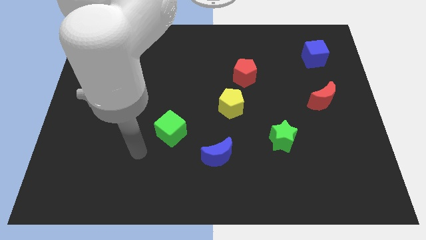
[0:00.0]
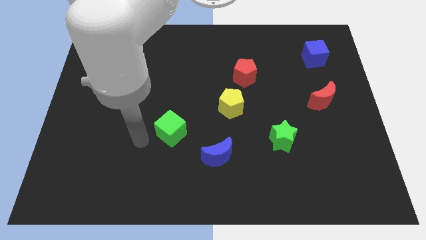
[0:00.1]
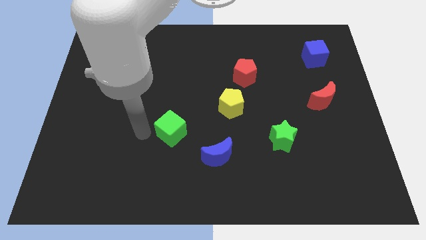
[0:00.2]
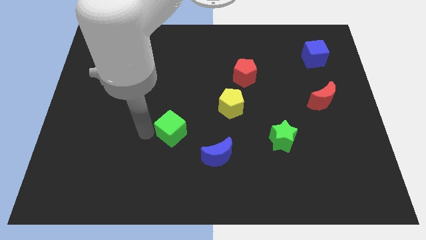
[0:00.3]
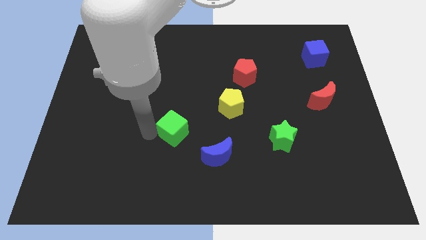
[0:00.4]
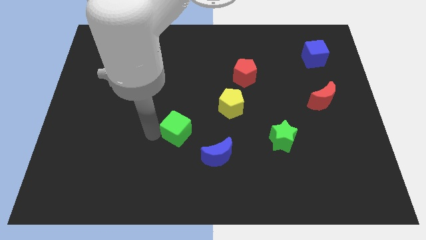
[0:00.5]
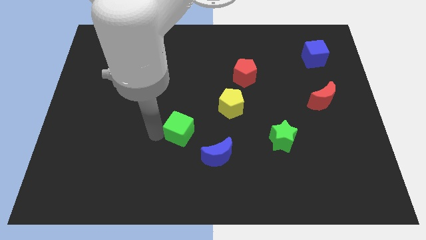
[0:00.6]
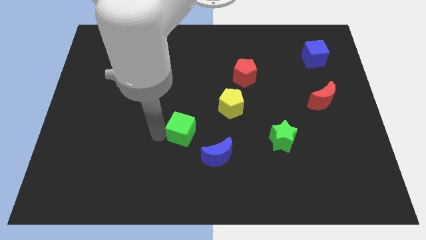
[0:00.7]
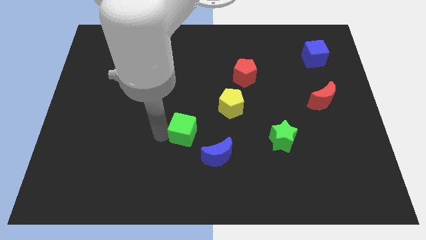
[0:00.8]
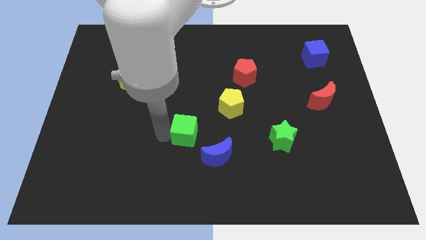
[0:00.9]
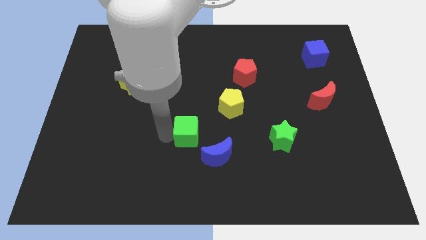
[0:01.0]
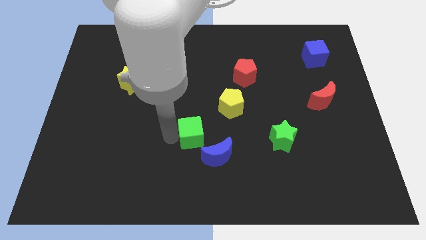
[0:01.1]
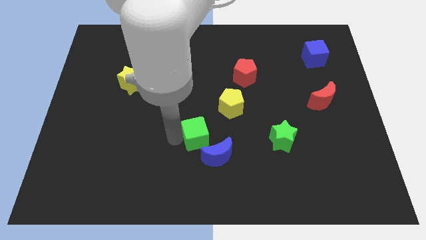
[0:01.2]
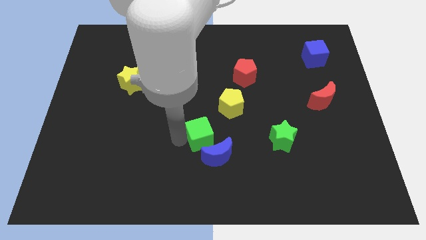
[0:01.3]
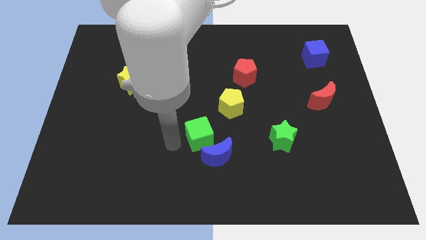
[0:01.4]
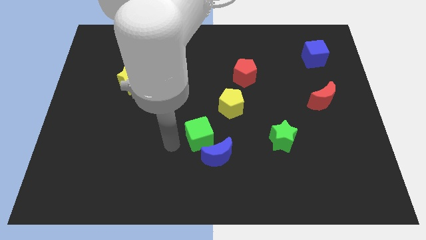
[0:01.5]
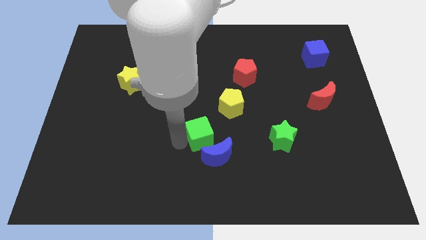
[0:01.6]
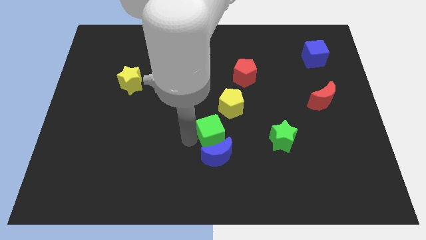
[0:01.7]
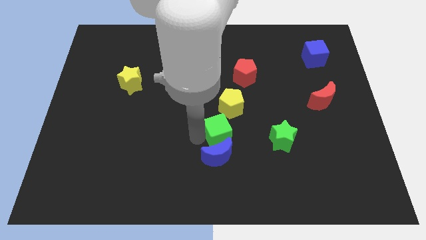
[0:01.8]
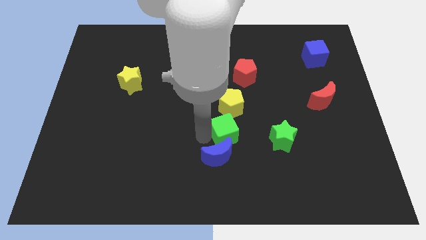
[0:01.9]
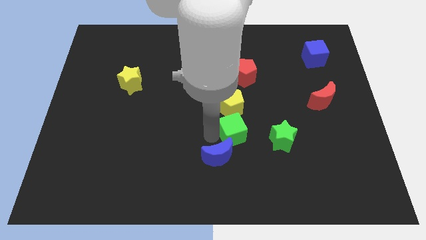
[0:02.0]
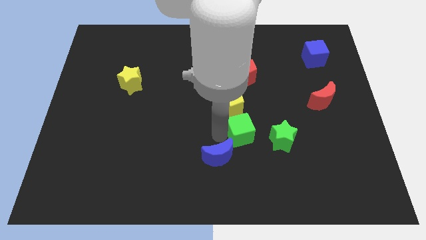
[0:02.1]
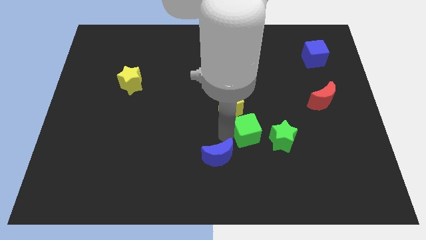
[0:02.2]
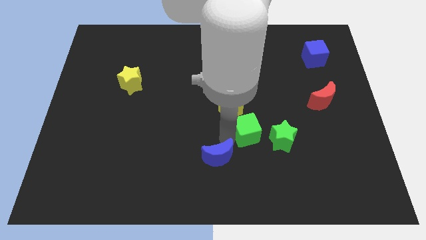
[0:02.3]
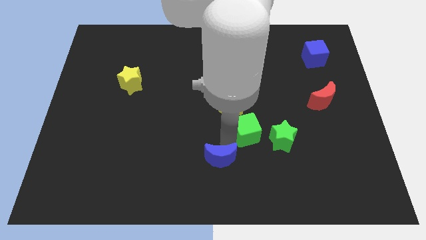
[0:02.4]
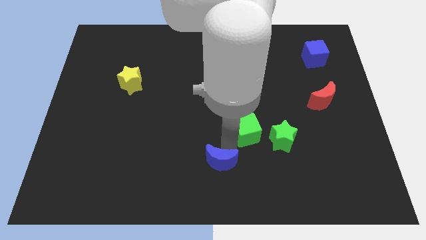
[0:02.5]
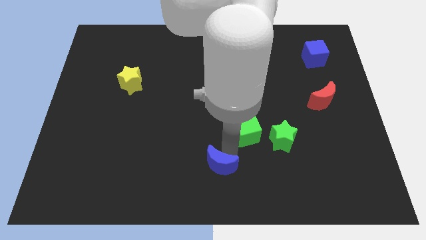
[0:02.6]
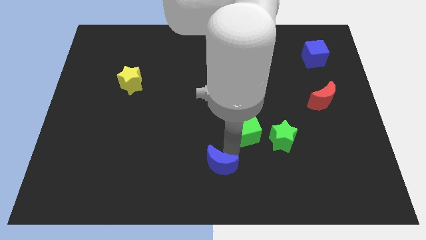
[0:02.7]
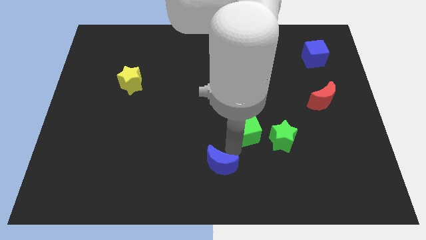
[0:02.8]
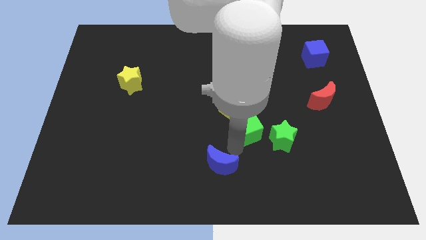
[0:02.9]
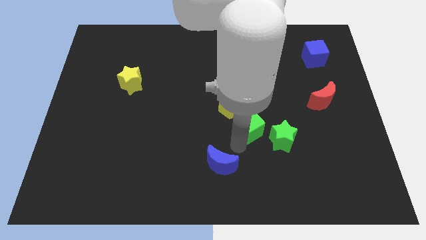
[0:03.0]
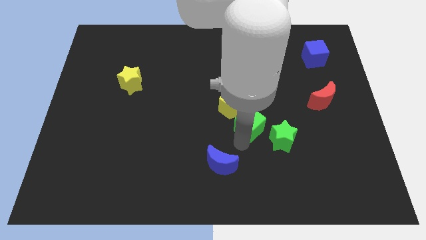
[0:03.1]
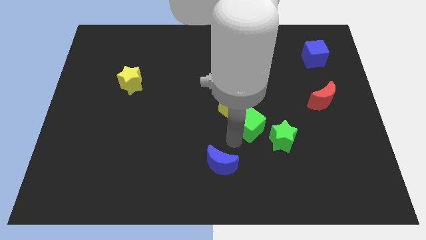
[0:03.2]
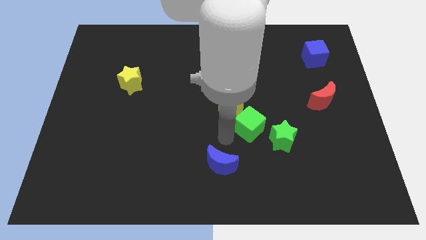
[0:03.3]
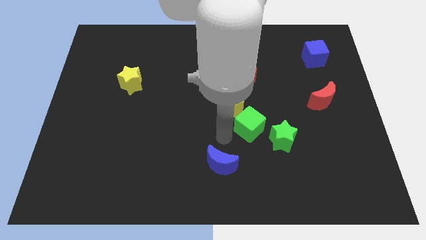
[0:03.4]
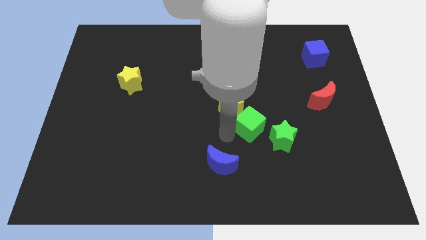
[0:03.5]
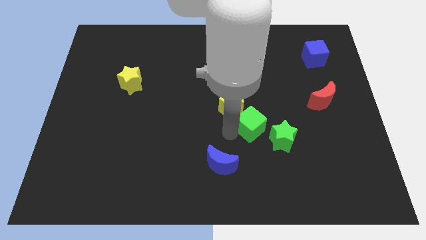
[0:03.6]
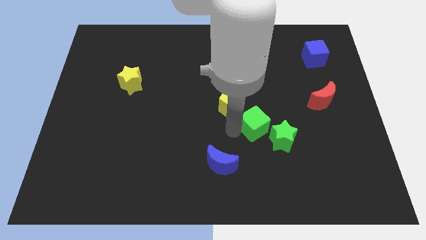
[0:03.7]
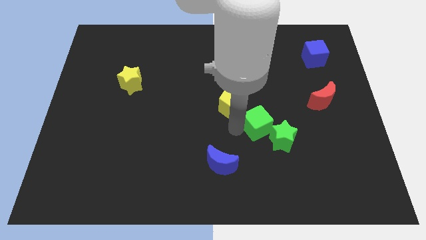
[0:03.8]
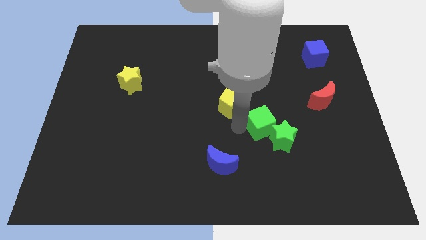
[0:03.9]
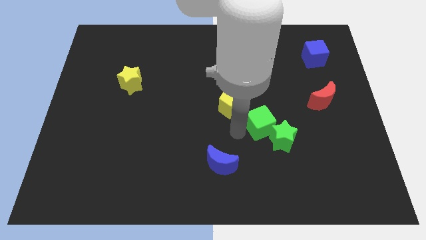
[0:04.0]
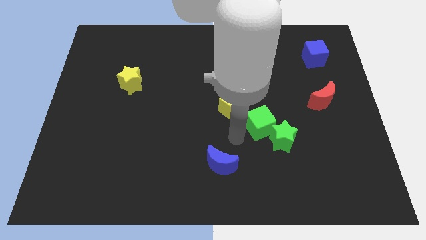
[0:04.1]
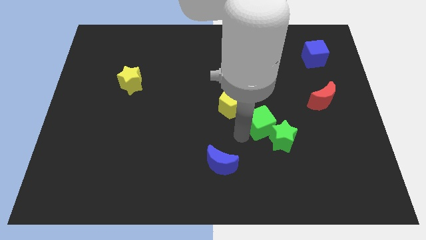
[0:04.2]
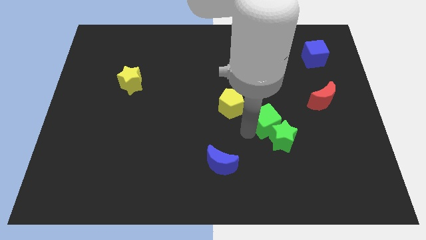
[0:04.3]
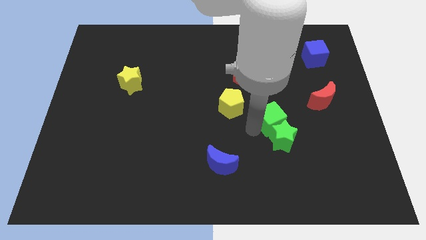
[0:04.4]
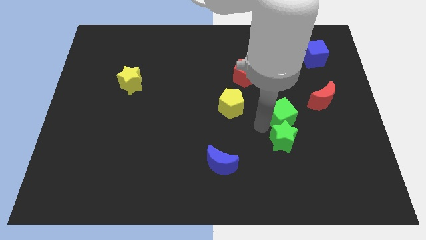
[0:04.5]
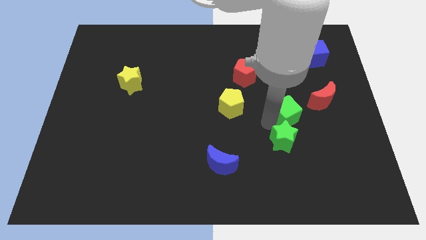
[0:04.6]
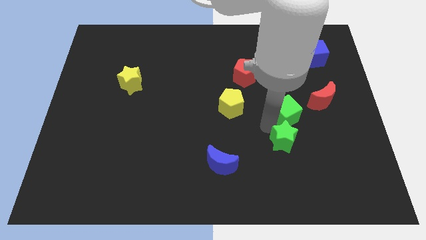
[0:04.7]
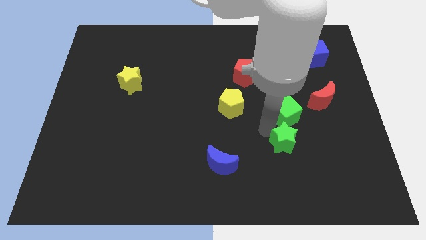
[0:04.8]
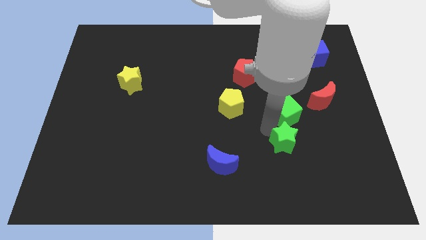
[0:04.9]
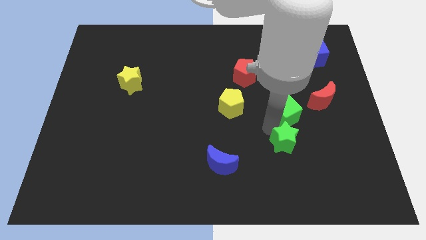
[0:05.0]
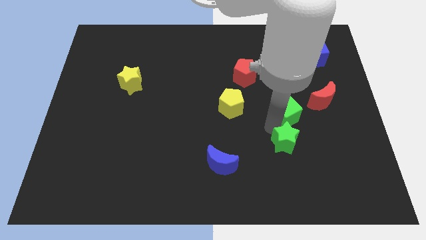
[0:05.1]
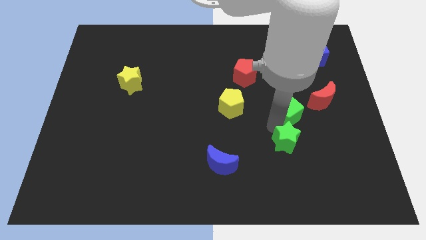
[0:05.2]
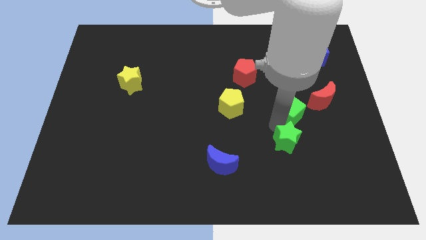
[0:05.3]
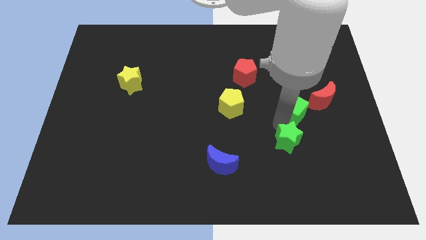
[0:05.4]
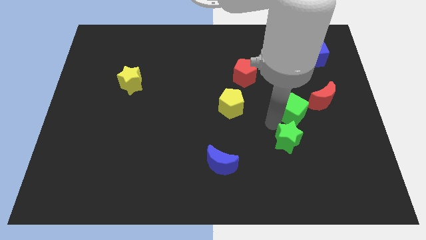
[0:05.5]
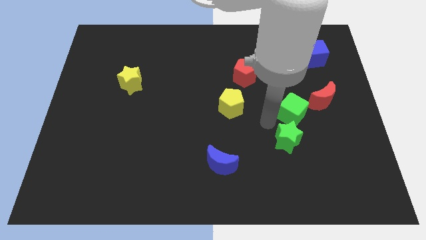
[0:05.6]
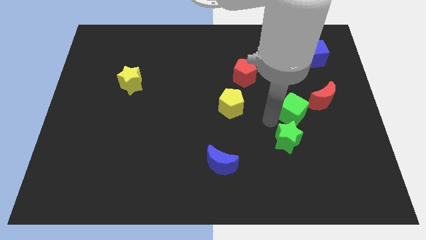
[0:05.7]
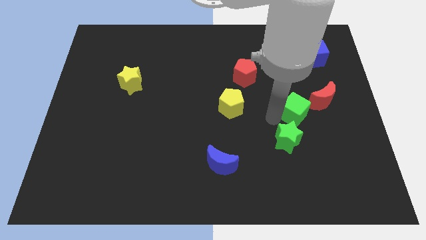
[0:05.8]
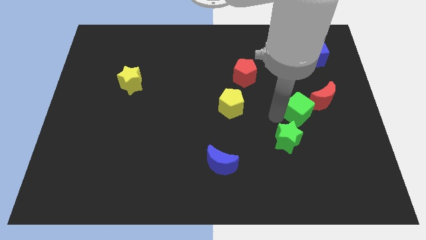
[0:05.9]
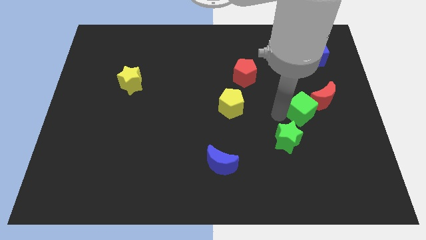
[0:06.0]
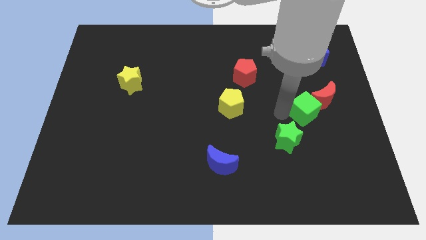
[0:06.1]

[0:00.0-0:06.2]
push the green cube next to the red moon

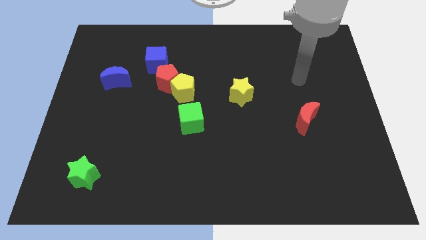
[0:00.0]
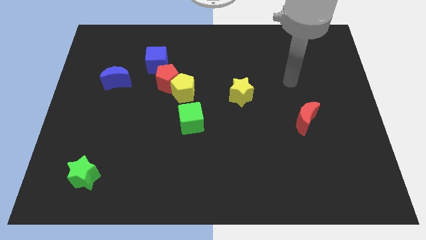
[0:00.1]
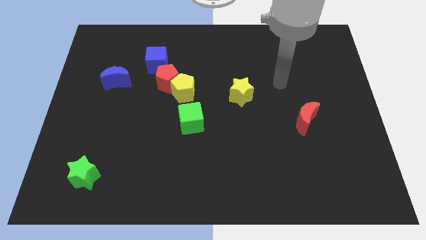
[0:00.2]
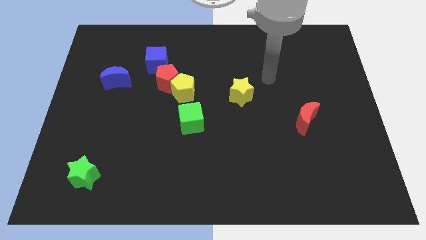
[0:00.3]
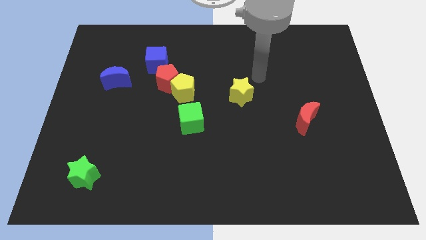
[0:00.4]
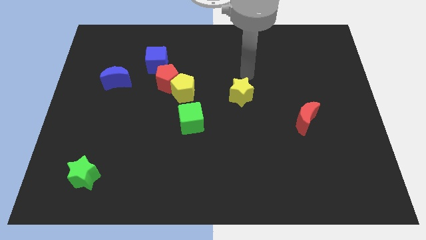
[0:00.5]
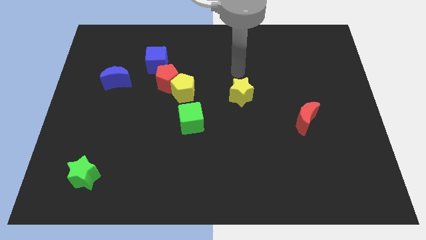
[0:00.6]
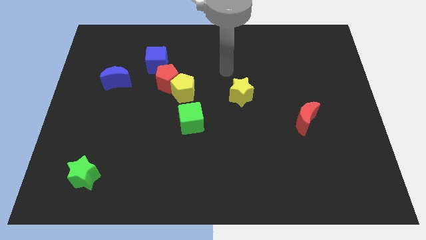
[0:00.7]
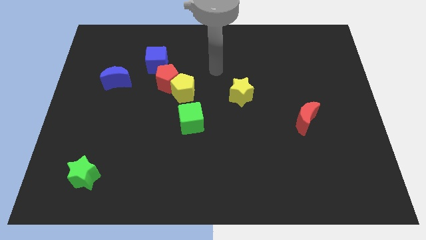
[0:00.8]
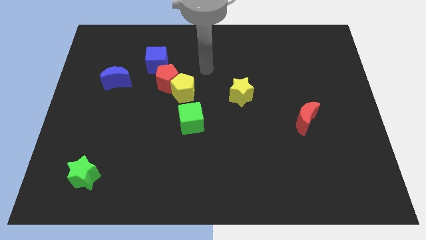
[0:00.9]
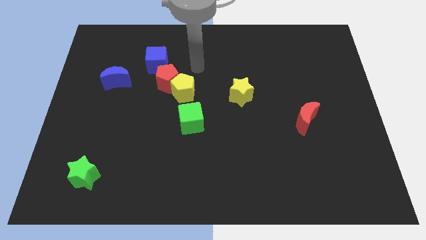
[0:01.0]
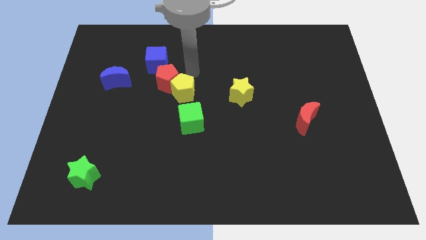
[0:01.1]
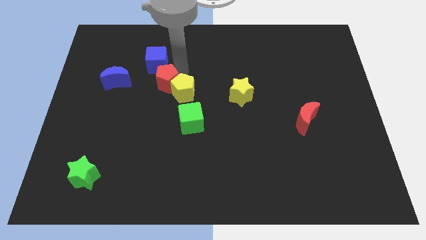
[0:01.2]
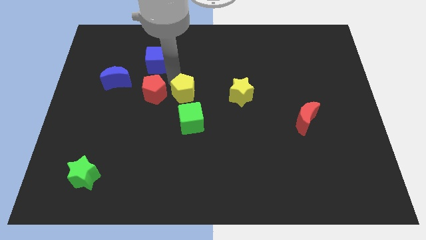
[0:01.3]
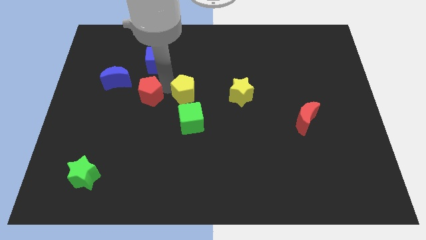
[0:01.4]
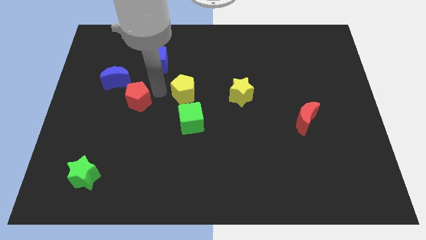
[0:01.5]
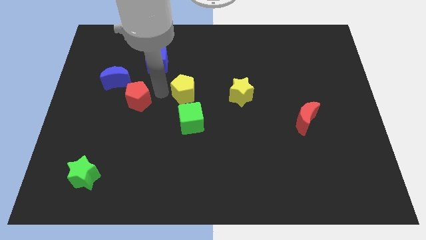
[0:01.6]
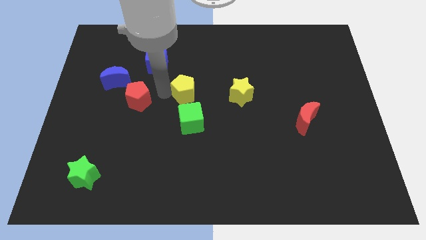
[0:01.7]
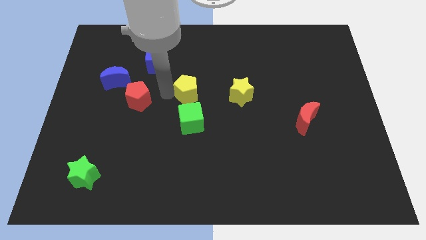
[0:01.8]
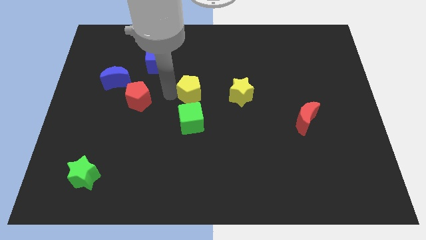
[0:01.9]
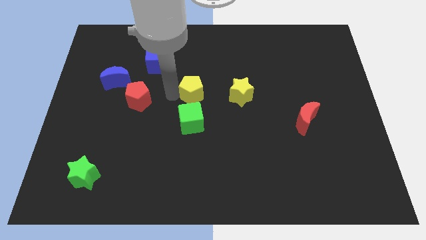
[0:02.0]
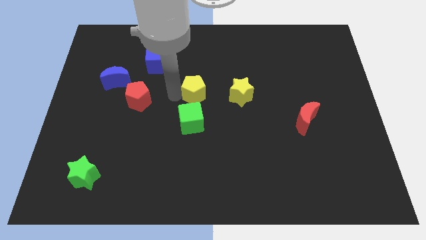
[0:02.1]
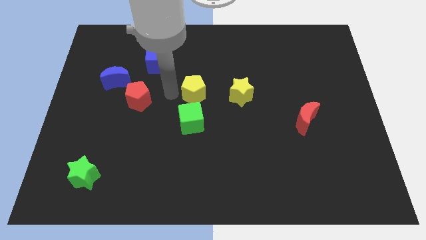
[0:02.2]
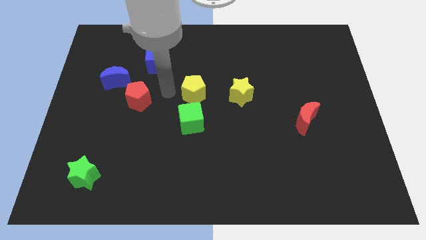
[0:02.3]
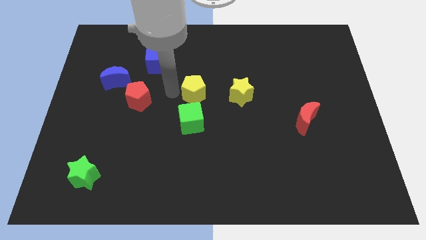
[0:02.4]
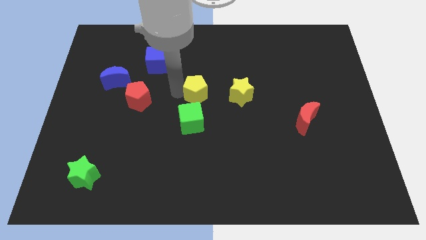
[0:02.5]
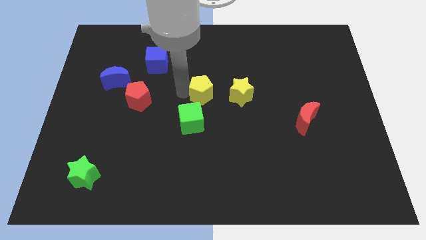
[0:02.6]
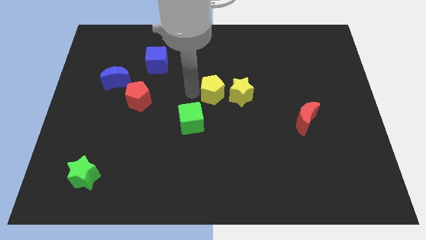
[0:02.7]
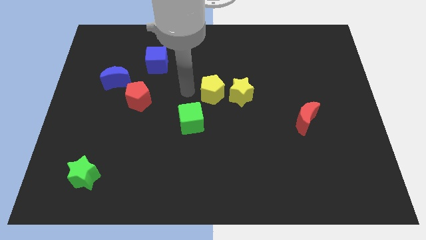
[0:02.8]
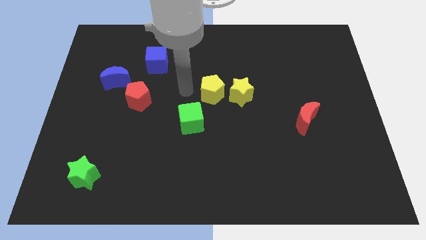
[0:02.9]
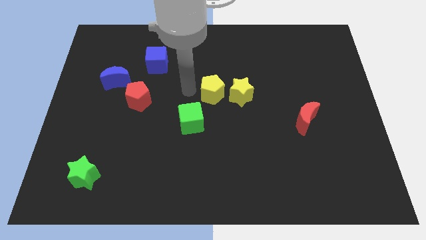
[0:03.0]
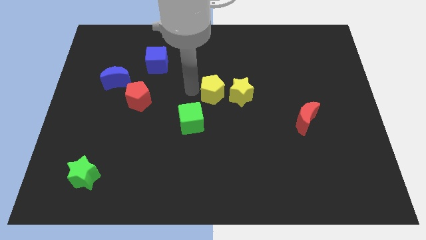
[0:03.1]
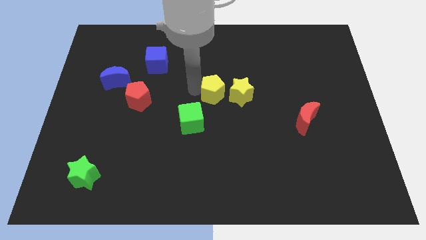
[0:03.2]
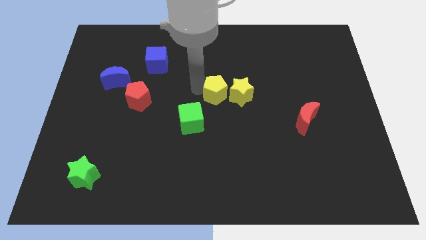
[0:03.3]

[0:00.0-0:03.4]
move the yellow pentagon to the yellow star
